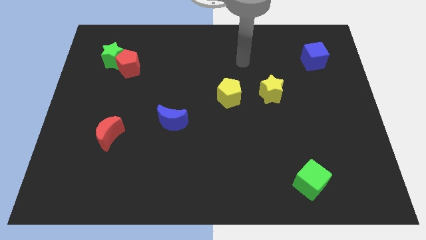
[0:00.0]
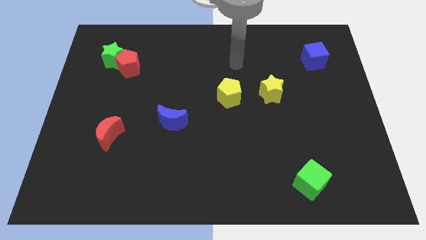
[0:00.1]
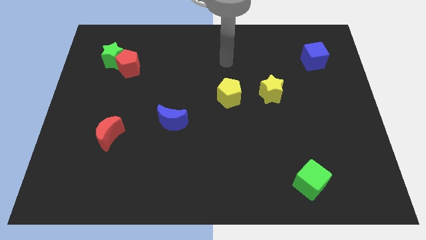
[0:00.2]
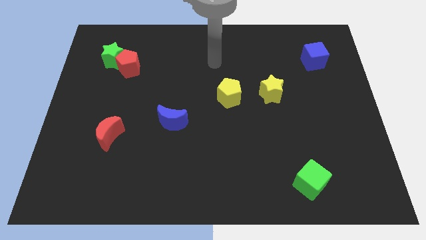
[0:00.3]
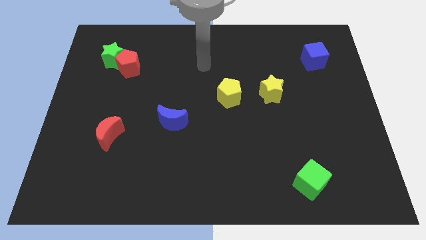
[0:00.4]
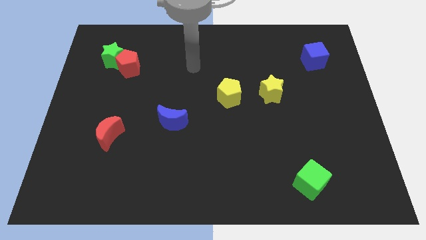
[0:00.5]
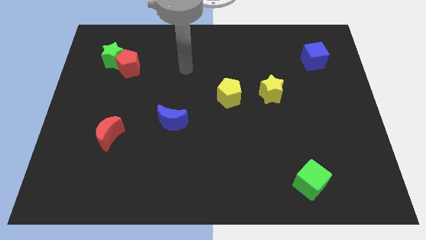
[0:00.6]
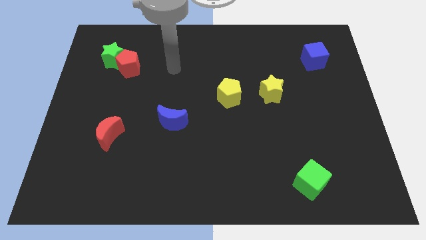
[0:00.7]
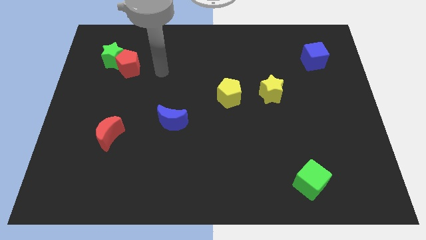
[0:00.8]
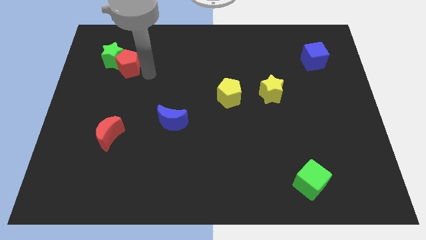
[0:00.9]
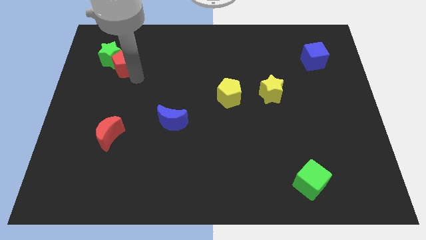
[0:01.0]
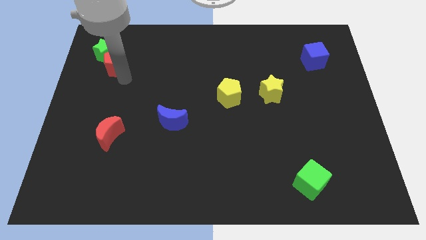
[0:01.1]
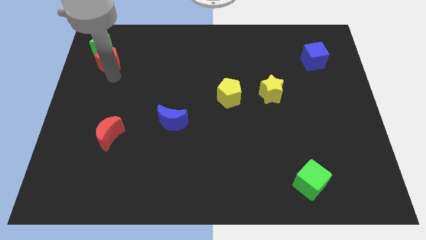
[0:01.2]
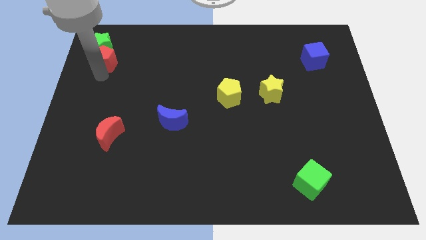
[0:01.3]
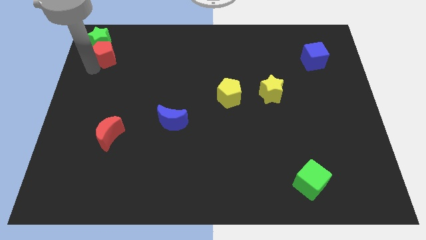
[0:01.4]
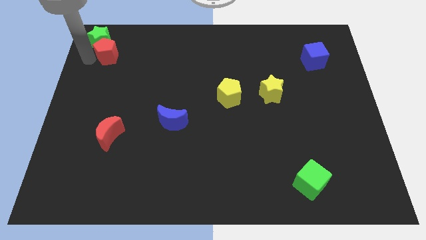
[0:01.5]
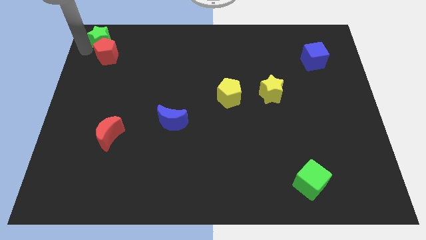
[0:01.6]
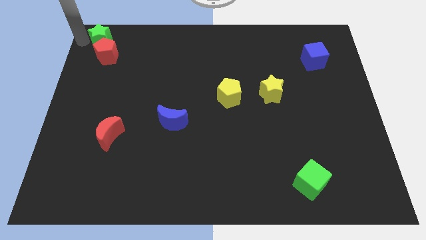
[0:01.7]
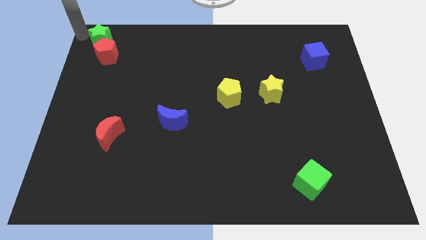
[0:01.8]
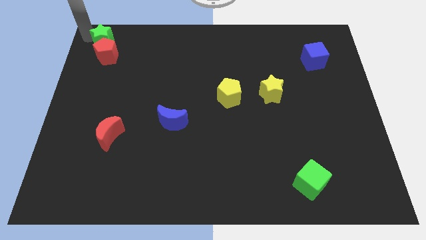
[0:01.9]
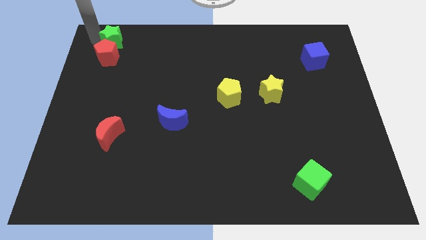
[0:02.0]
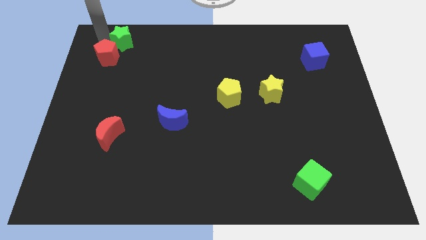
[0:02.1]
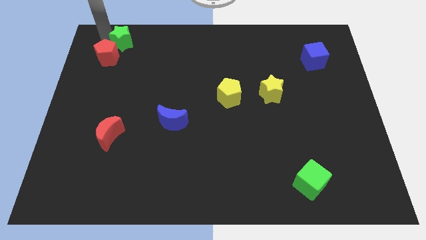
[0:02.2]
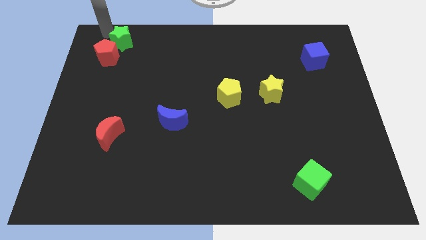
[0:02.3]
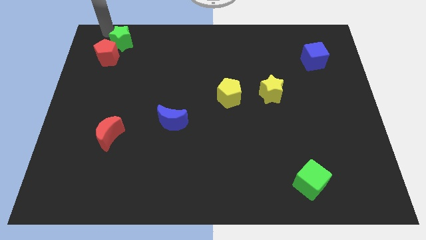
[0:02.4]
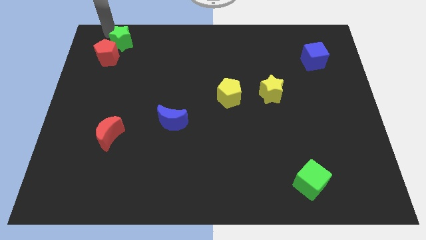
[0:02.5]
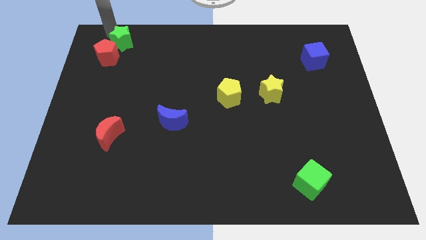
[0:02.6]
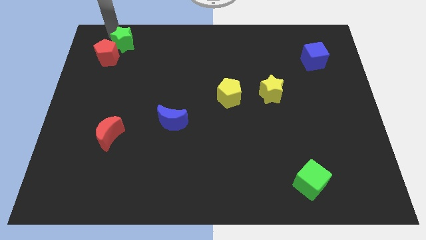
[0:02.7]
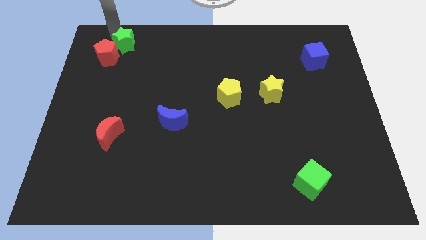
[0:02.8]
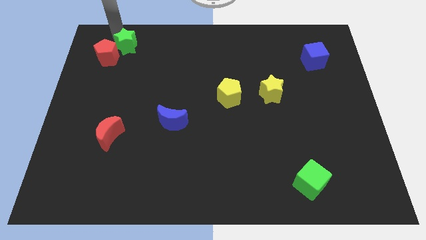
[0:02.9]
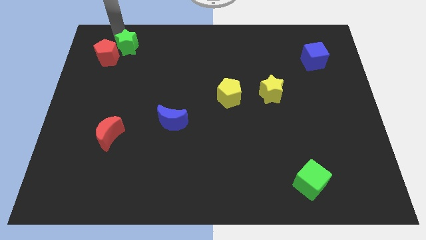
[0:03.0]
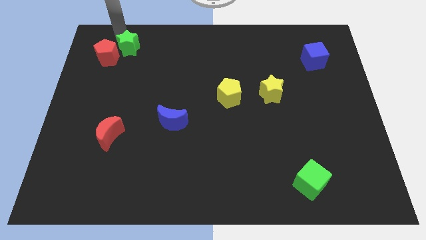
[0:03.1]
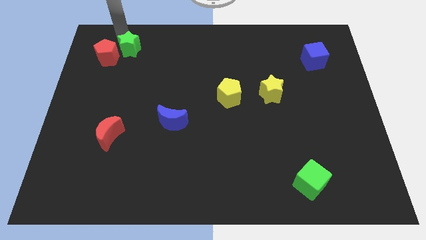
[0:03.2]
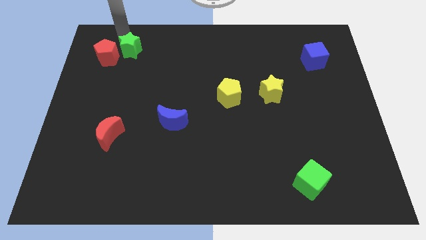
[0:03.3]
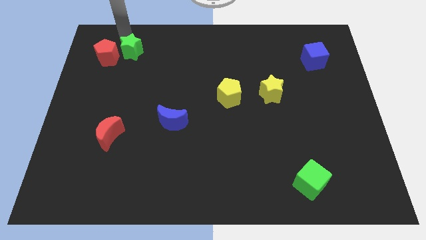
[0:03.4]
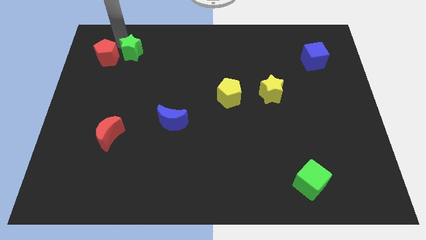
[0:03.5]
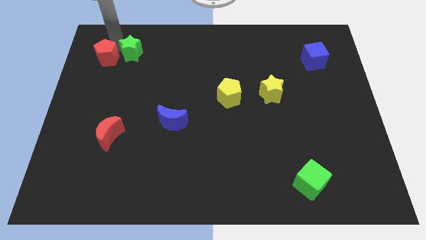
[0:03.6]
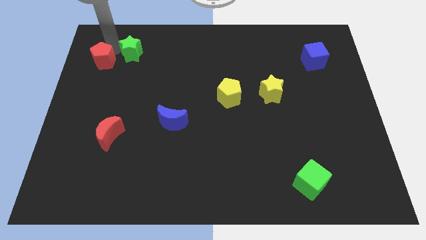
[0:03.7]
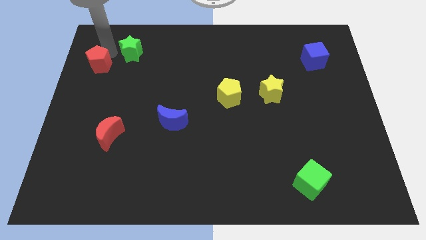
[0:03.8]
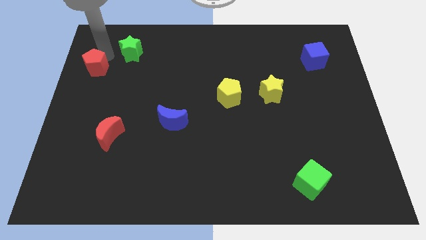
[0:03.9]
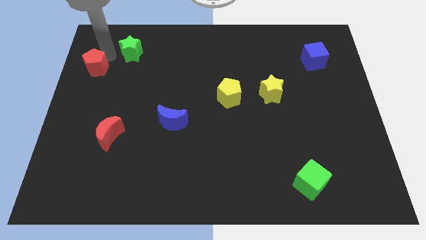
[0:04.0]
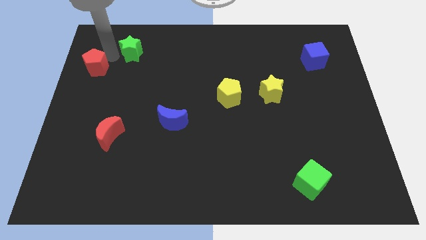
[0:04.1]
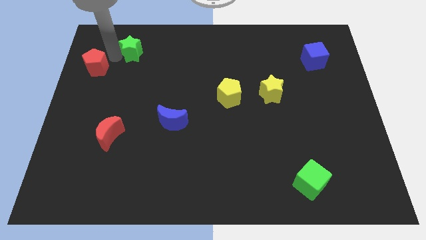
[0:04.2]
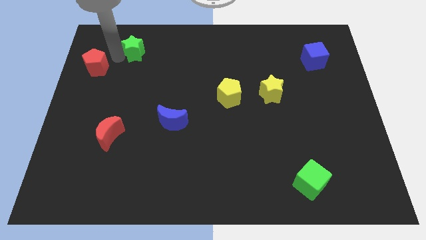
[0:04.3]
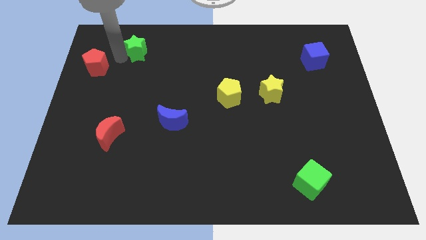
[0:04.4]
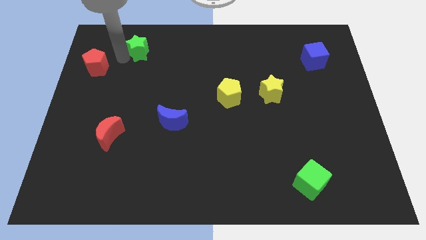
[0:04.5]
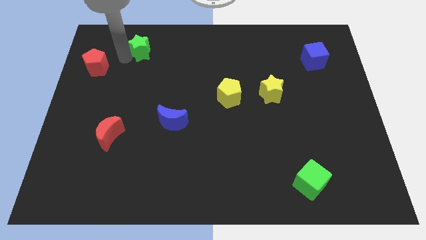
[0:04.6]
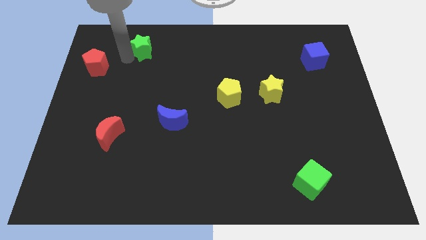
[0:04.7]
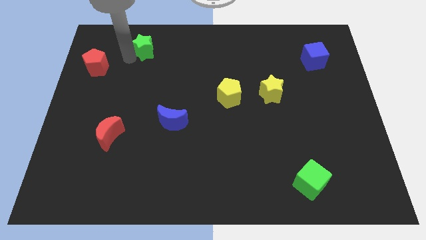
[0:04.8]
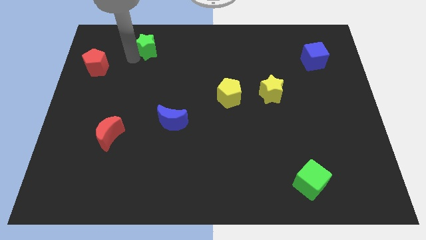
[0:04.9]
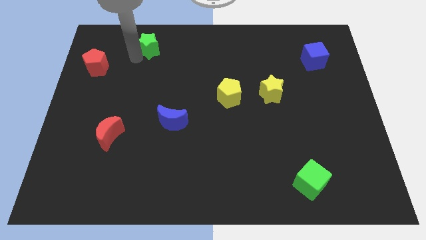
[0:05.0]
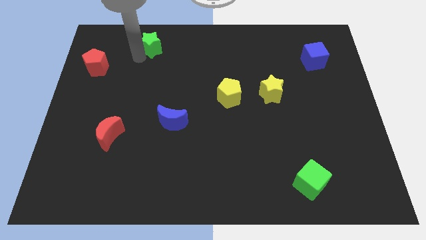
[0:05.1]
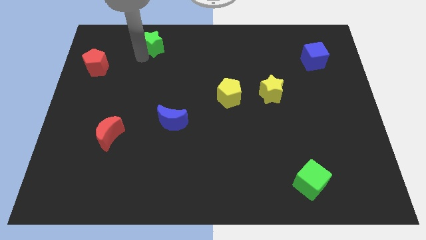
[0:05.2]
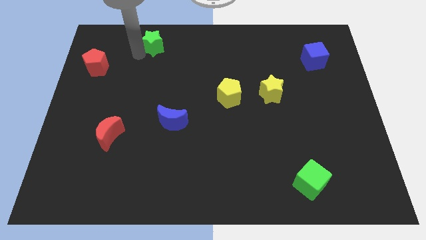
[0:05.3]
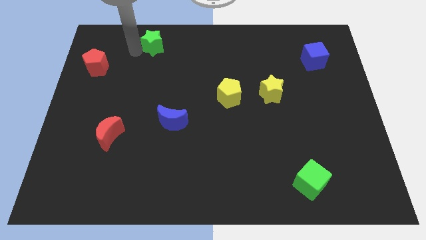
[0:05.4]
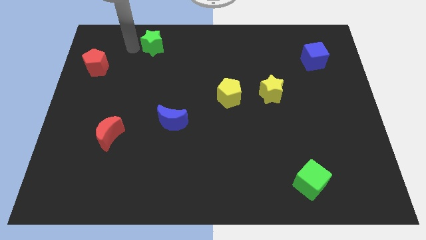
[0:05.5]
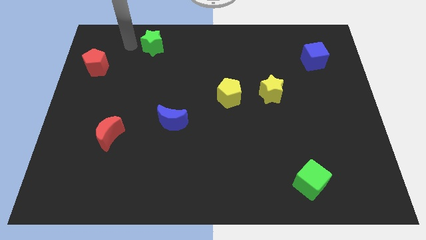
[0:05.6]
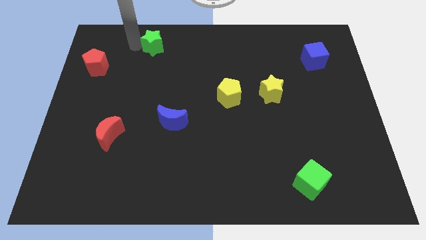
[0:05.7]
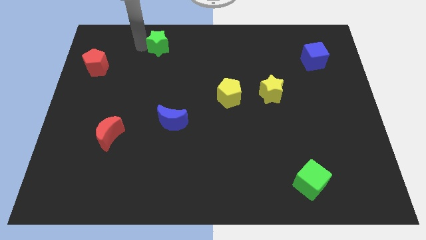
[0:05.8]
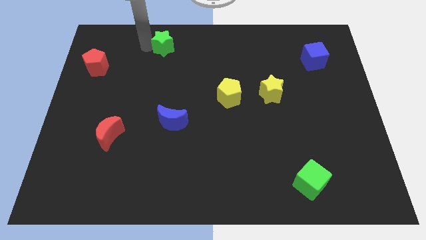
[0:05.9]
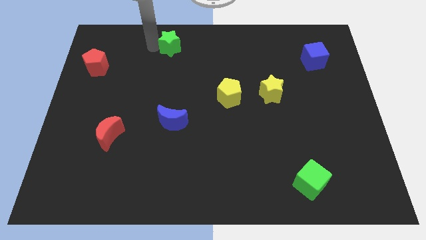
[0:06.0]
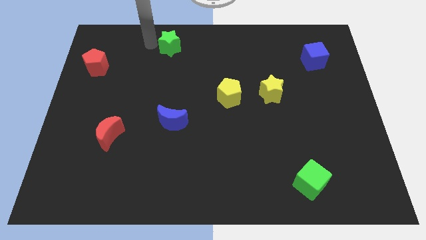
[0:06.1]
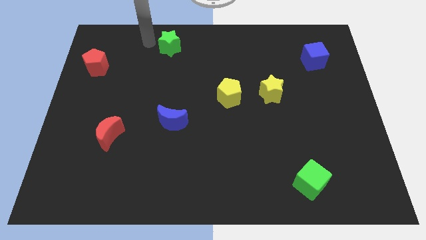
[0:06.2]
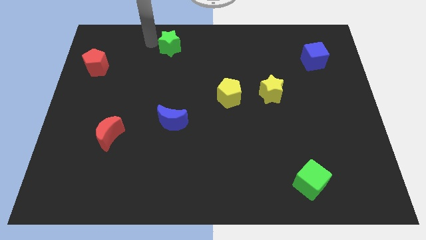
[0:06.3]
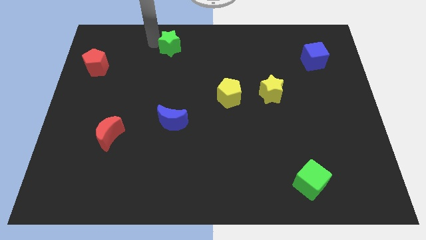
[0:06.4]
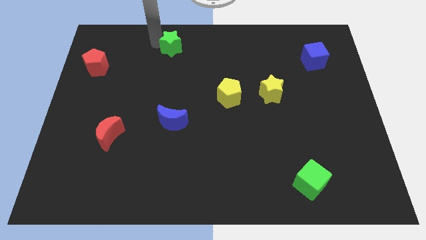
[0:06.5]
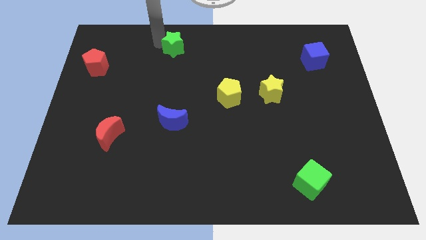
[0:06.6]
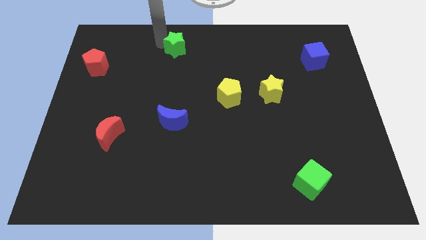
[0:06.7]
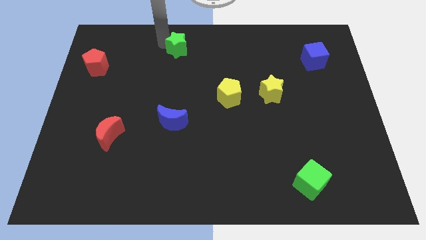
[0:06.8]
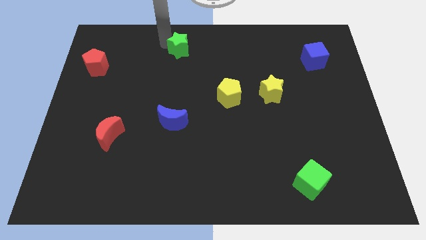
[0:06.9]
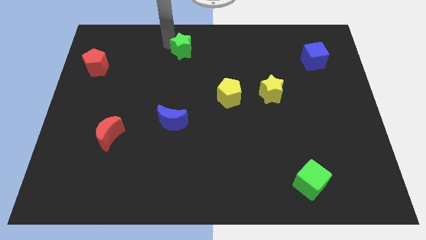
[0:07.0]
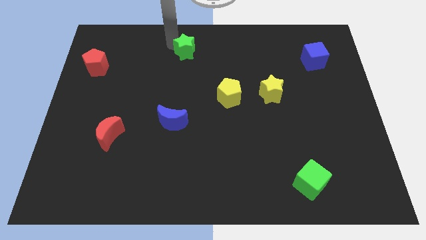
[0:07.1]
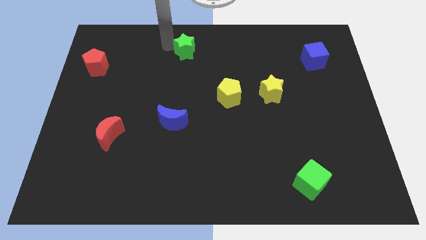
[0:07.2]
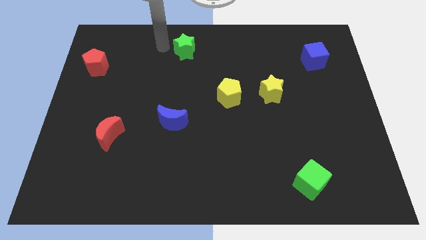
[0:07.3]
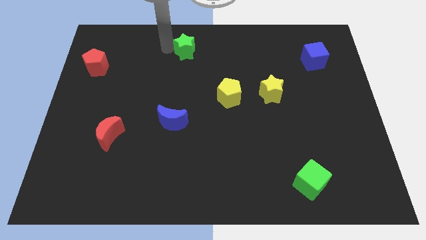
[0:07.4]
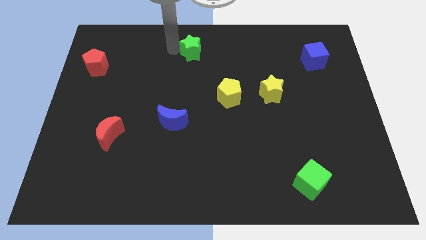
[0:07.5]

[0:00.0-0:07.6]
slide the green star to the right

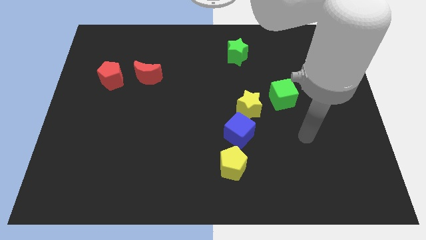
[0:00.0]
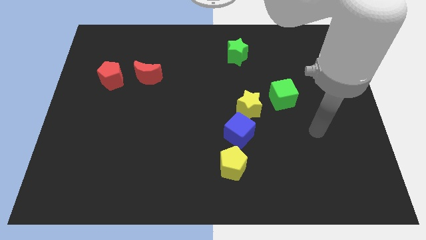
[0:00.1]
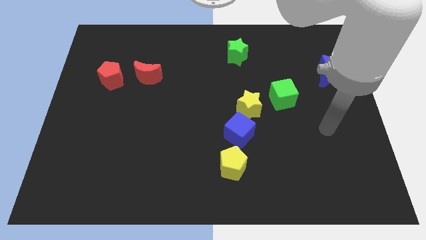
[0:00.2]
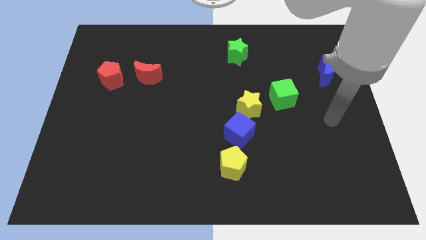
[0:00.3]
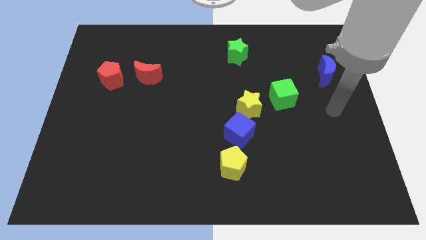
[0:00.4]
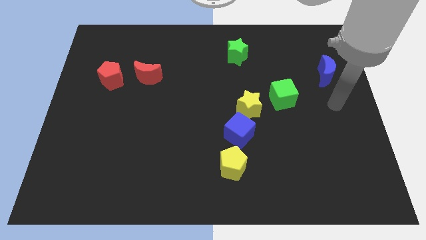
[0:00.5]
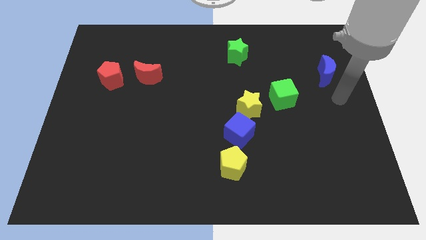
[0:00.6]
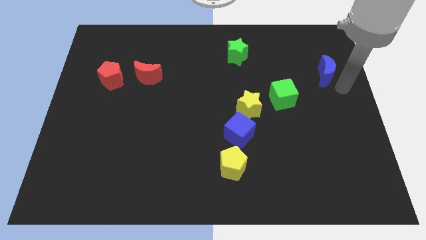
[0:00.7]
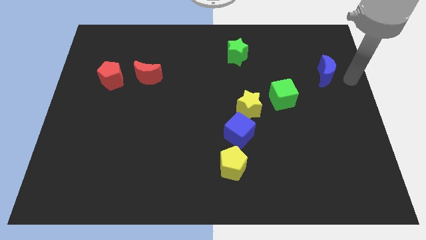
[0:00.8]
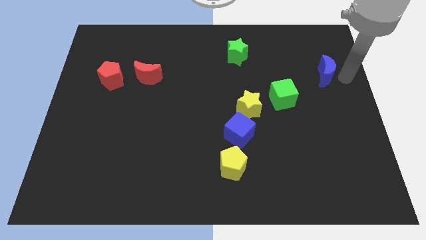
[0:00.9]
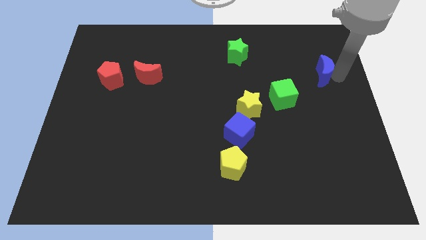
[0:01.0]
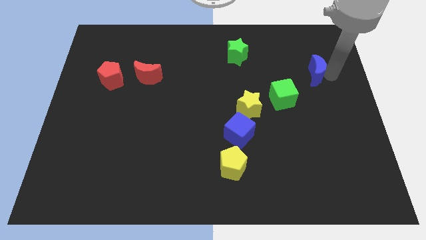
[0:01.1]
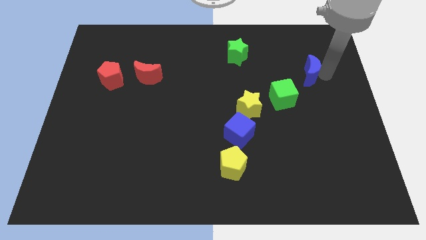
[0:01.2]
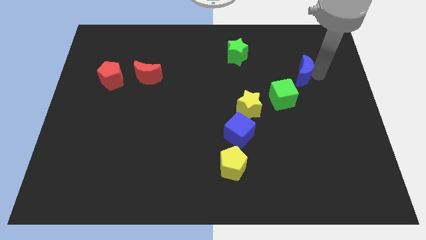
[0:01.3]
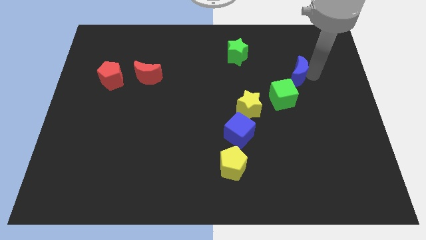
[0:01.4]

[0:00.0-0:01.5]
slightly slide the blue moon to the left
